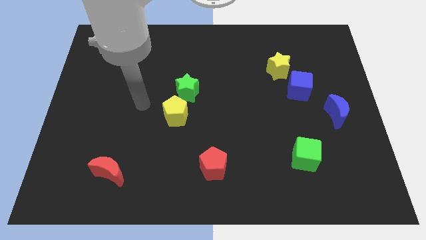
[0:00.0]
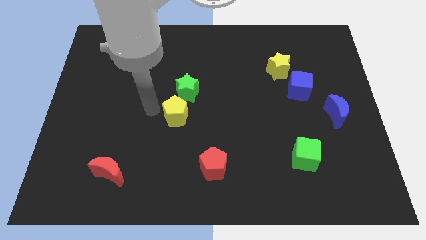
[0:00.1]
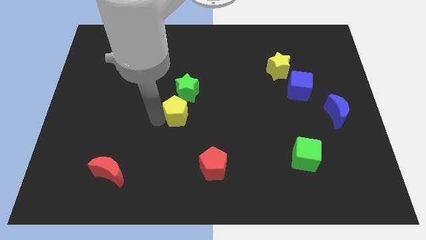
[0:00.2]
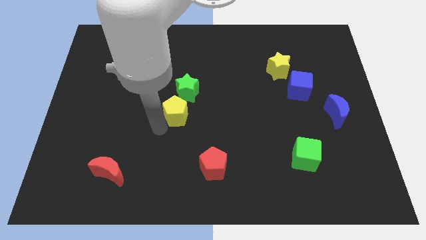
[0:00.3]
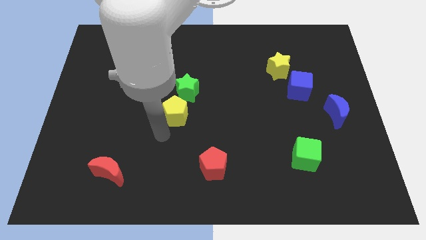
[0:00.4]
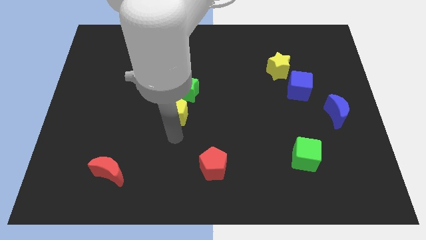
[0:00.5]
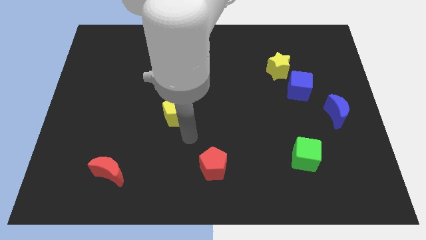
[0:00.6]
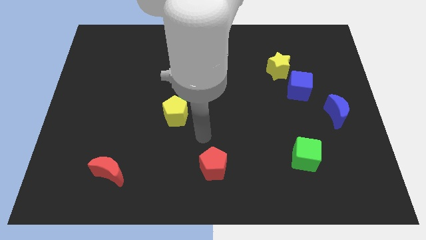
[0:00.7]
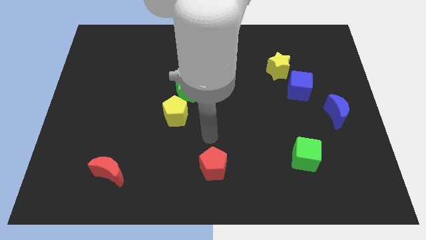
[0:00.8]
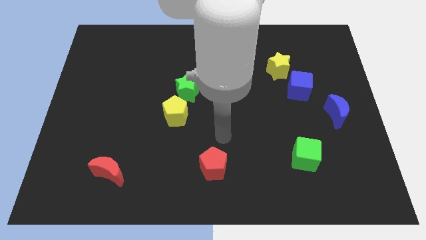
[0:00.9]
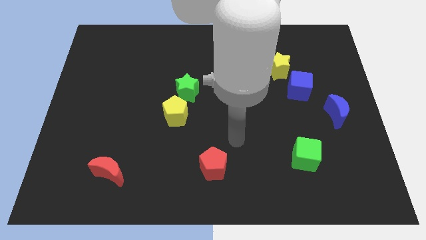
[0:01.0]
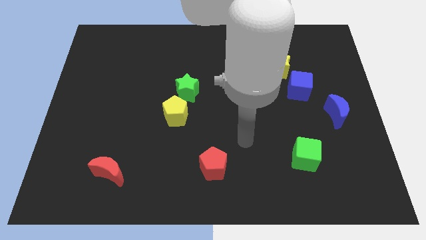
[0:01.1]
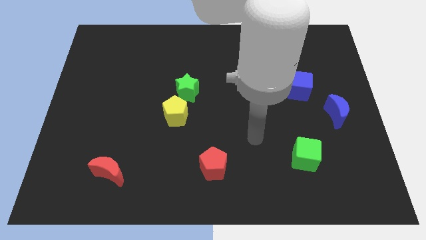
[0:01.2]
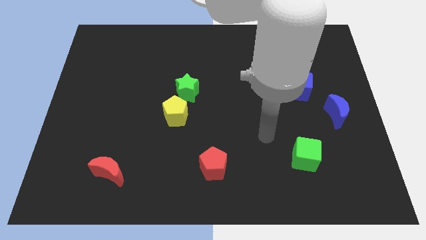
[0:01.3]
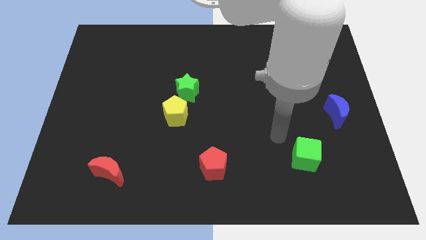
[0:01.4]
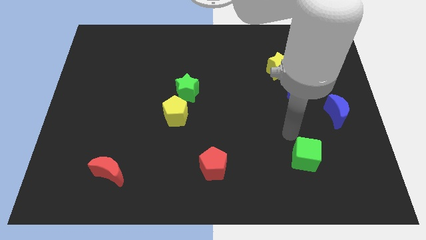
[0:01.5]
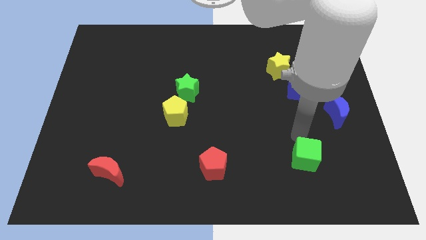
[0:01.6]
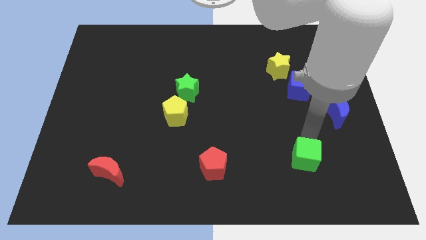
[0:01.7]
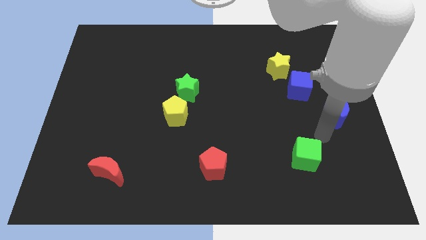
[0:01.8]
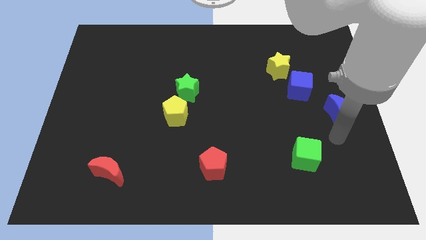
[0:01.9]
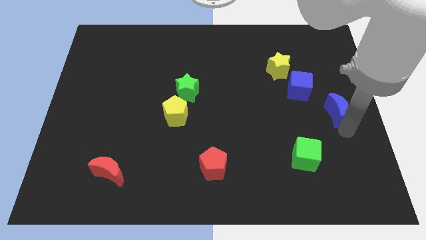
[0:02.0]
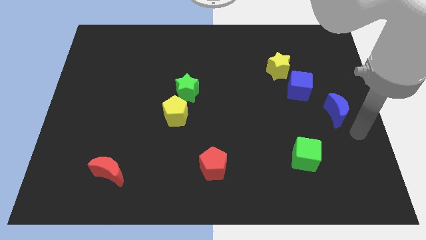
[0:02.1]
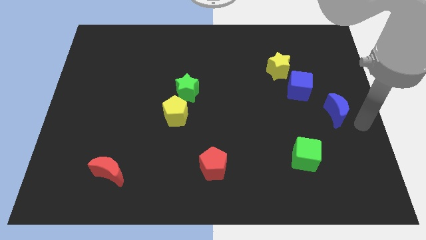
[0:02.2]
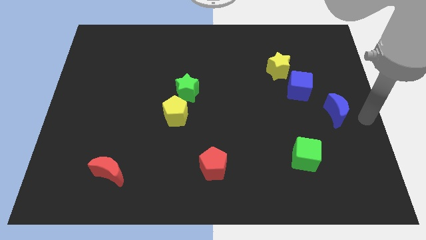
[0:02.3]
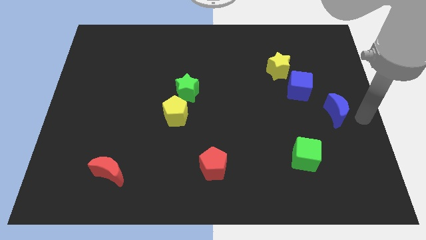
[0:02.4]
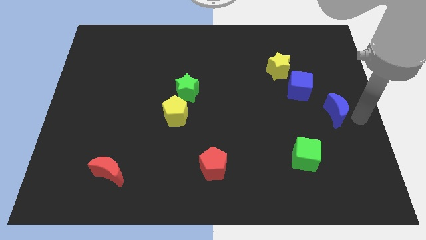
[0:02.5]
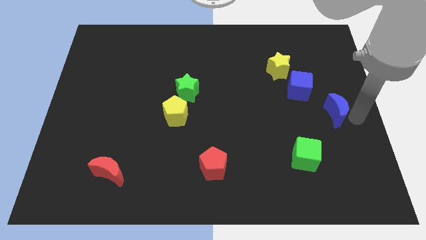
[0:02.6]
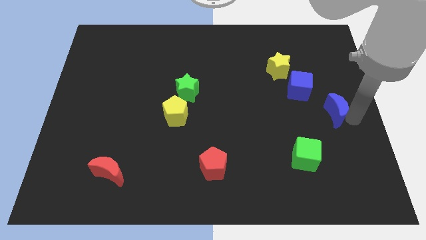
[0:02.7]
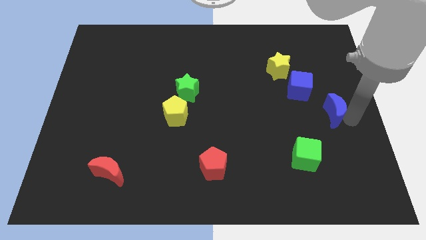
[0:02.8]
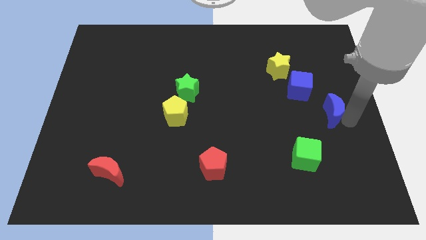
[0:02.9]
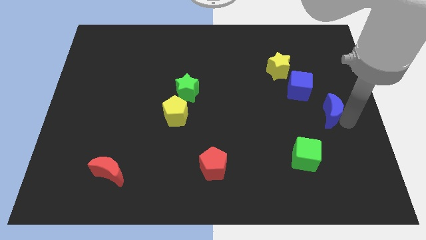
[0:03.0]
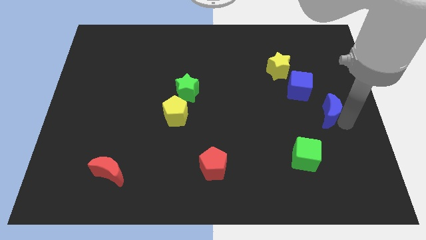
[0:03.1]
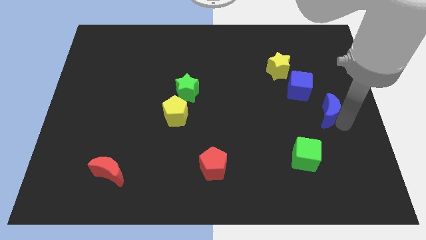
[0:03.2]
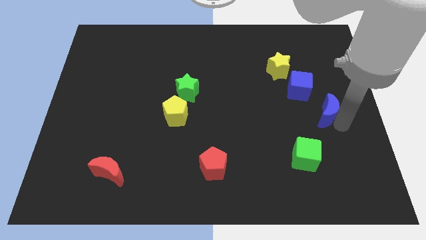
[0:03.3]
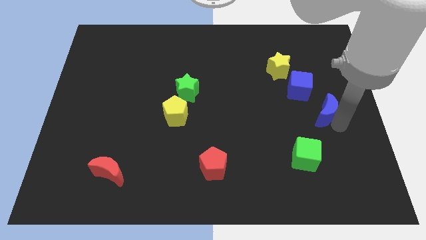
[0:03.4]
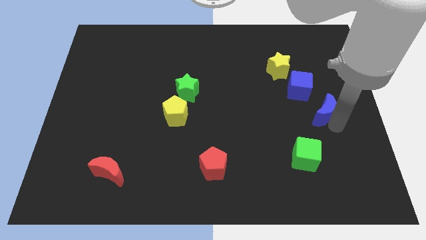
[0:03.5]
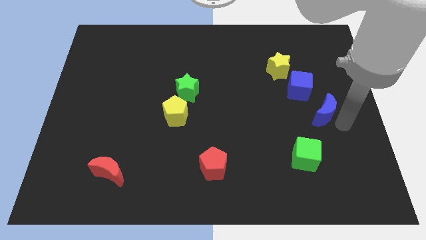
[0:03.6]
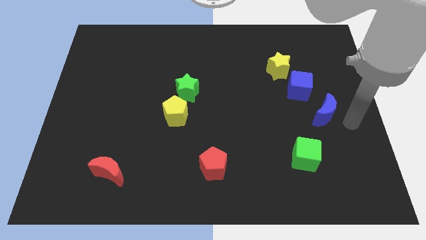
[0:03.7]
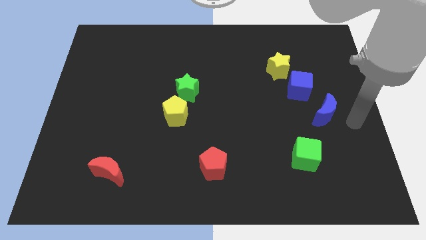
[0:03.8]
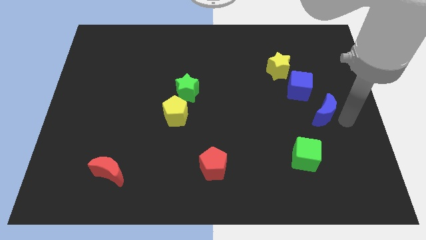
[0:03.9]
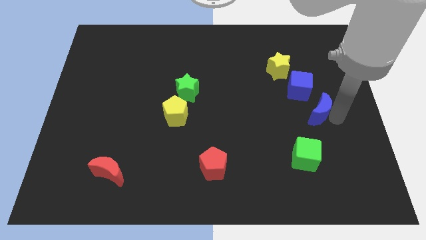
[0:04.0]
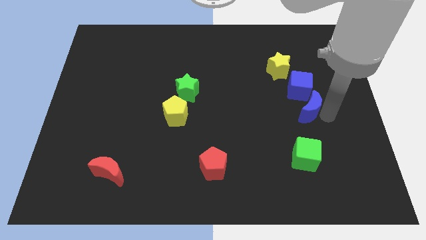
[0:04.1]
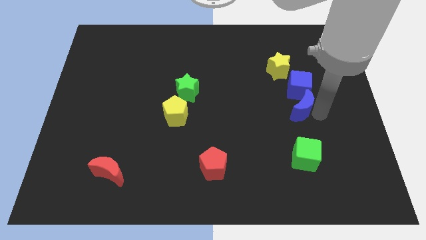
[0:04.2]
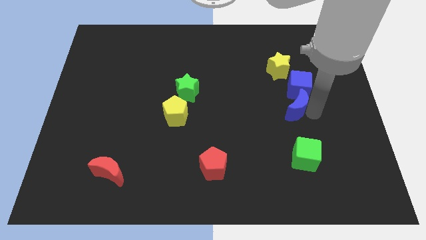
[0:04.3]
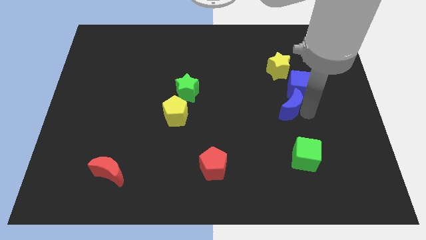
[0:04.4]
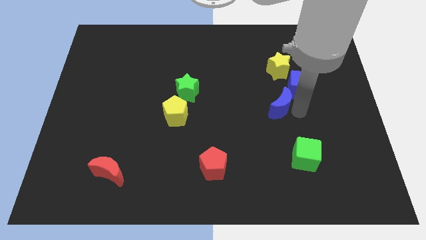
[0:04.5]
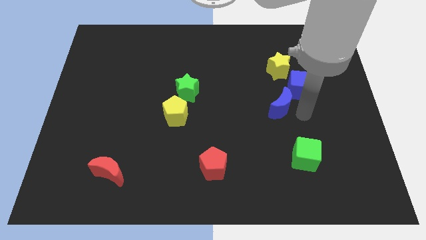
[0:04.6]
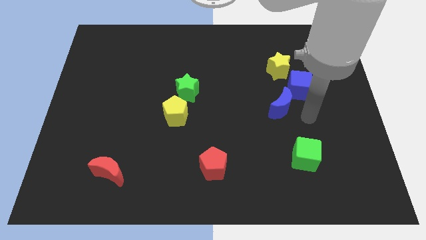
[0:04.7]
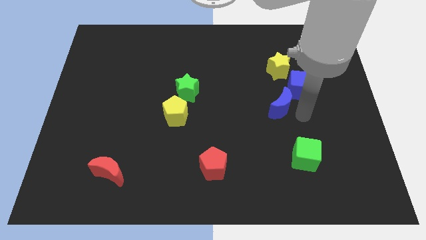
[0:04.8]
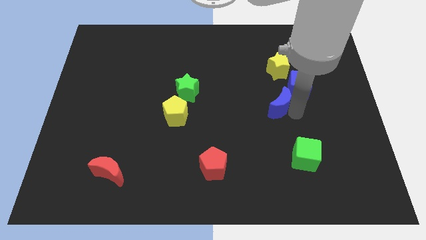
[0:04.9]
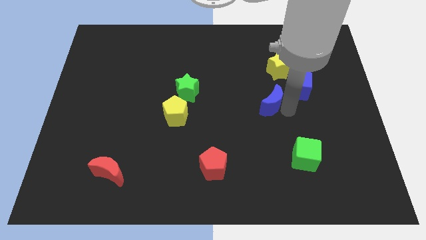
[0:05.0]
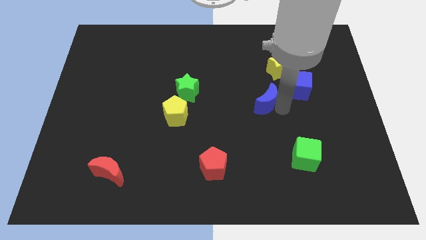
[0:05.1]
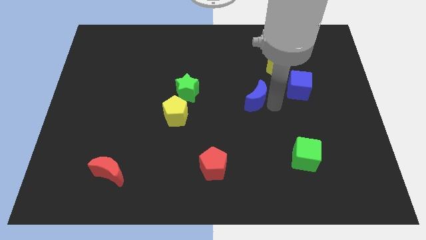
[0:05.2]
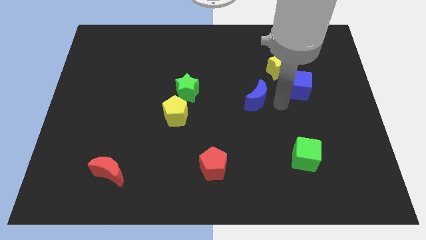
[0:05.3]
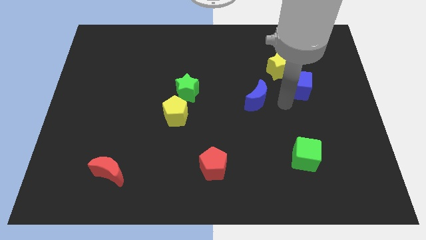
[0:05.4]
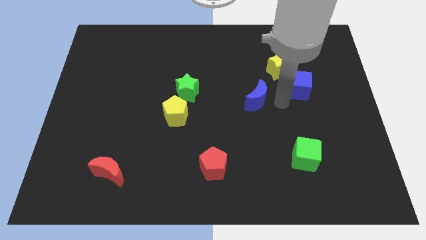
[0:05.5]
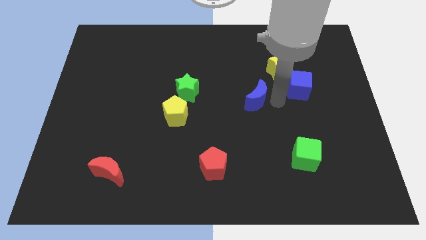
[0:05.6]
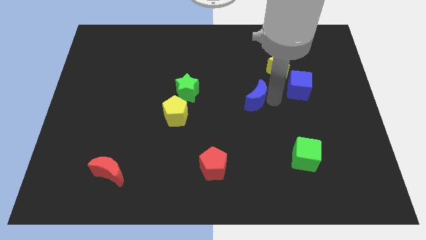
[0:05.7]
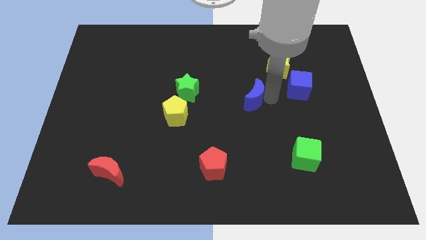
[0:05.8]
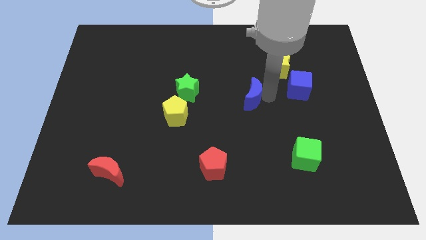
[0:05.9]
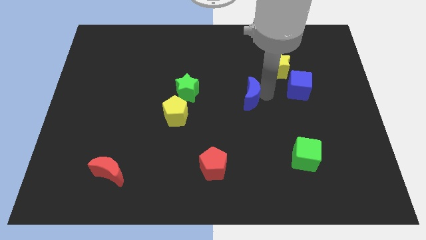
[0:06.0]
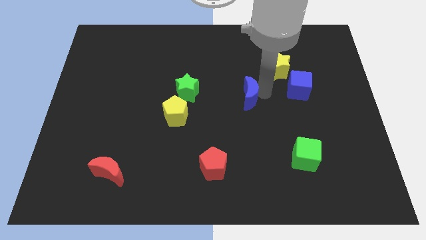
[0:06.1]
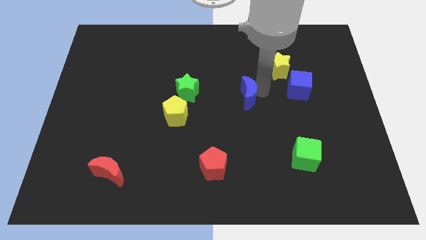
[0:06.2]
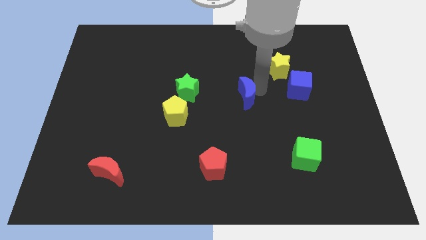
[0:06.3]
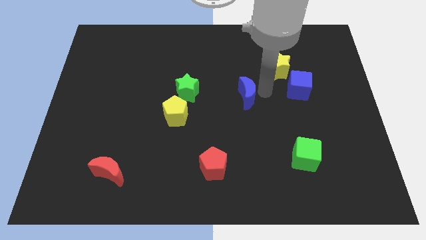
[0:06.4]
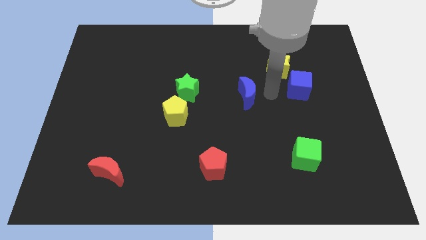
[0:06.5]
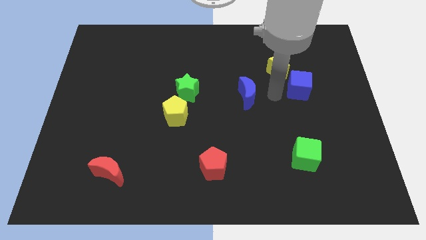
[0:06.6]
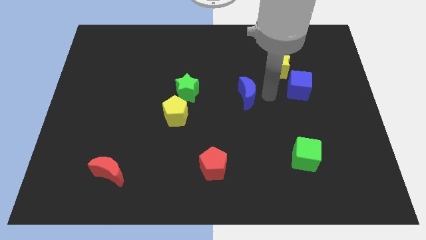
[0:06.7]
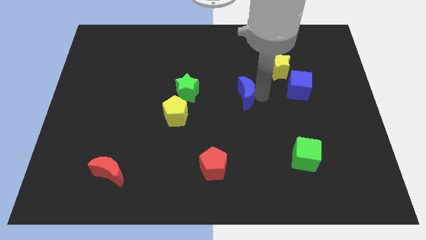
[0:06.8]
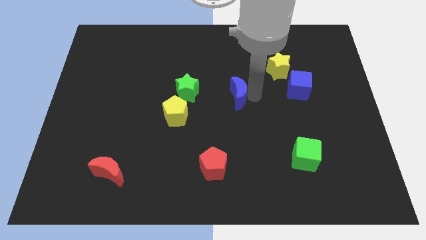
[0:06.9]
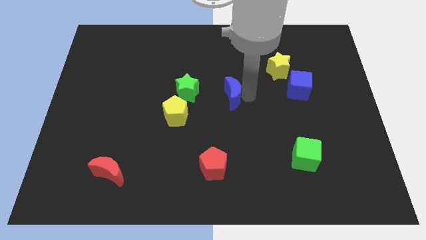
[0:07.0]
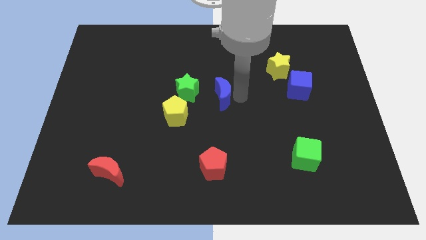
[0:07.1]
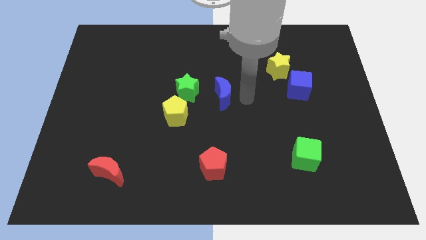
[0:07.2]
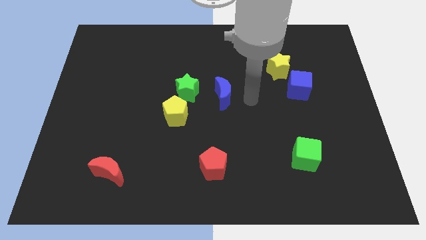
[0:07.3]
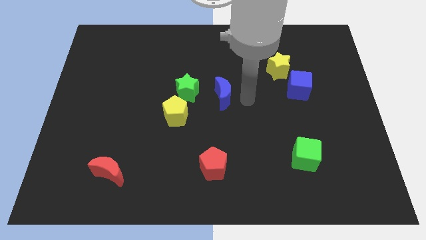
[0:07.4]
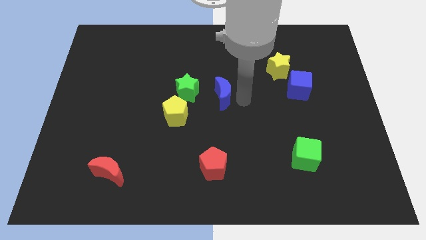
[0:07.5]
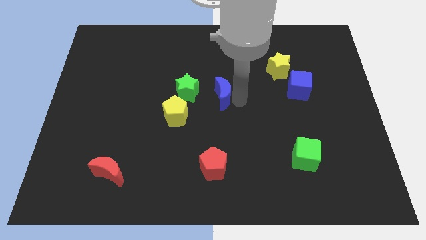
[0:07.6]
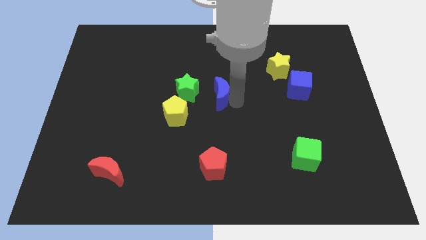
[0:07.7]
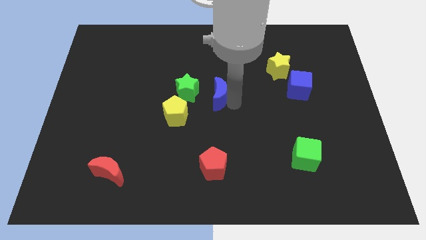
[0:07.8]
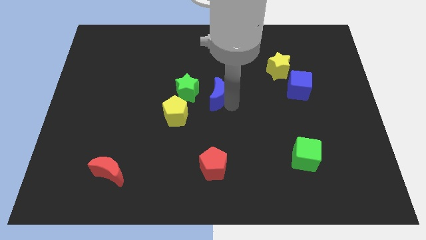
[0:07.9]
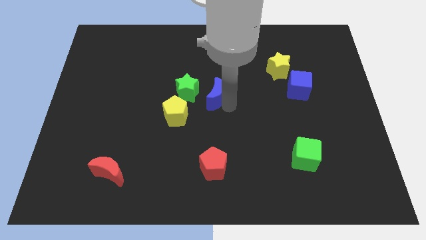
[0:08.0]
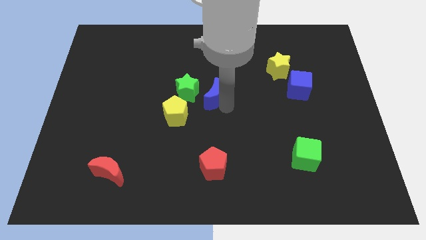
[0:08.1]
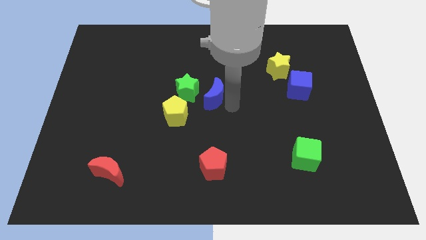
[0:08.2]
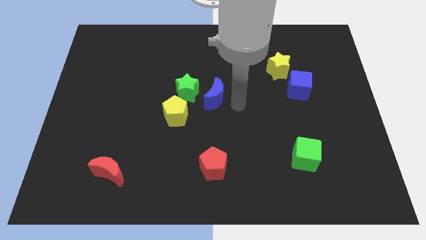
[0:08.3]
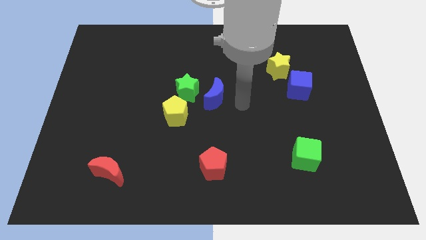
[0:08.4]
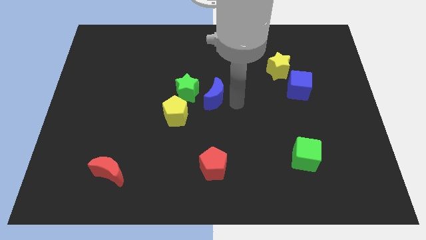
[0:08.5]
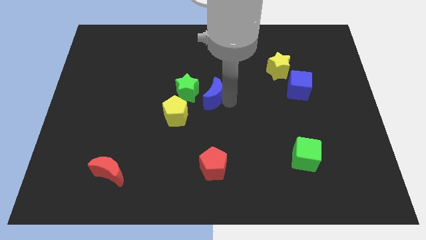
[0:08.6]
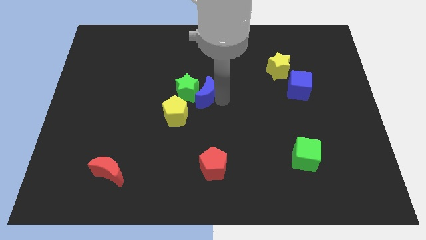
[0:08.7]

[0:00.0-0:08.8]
slide the blue moon towards the green star
